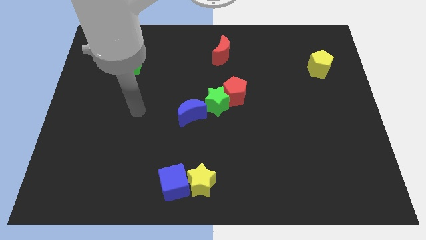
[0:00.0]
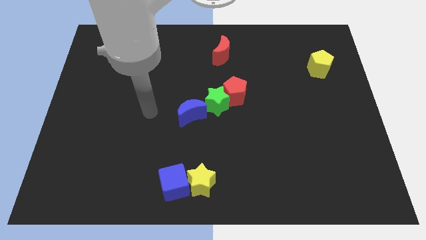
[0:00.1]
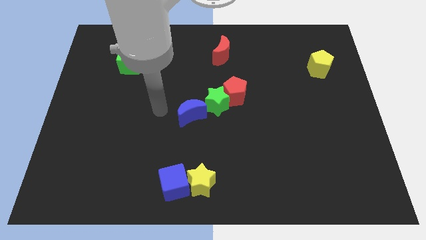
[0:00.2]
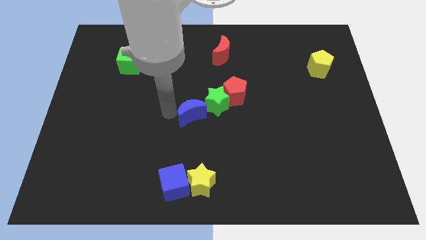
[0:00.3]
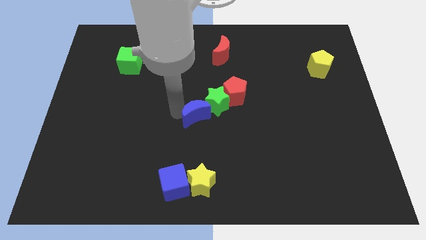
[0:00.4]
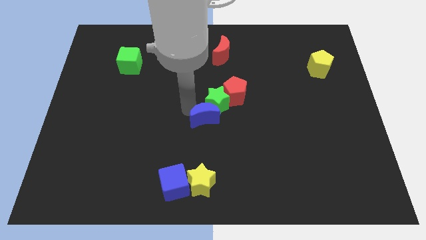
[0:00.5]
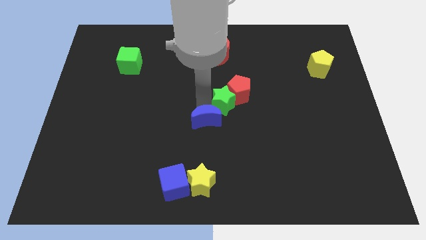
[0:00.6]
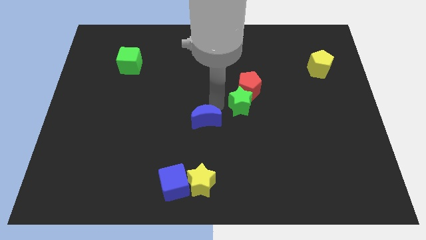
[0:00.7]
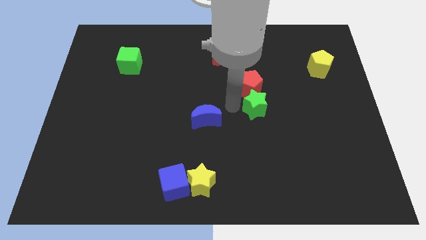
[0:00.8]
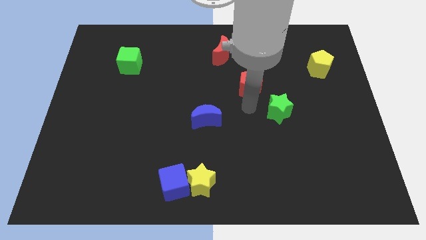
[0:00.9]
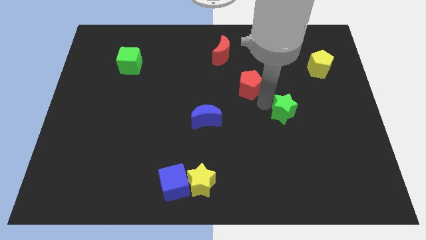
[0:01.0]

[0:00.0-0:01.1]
move the red pentagon away from the green star

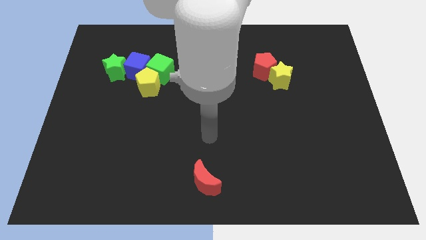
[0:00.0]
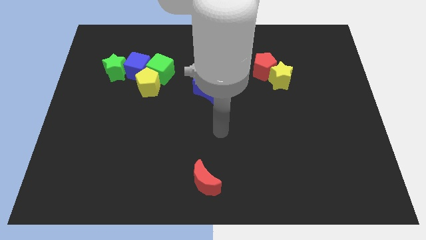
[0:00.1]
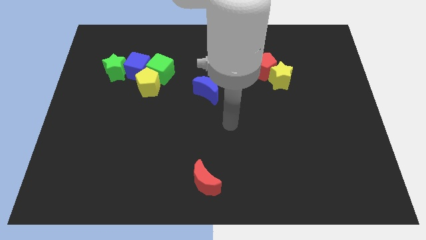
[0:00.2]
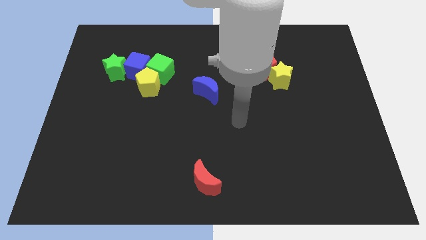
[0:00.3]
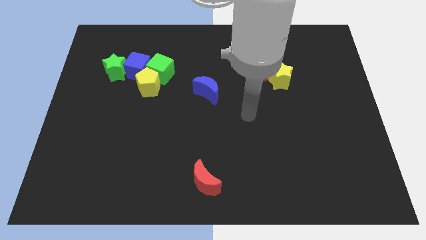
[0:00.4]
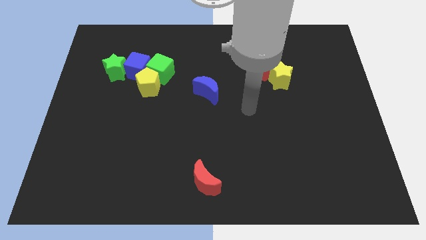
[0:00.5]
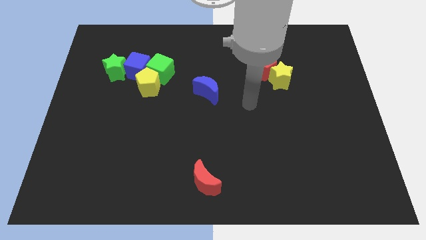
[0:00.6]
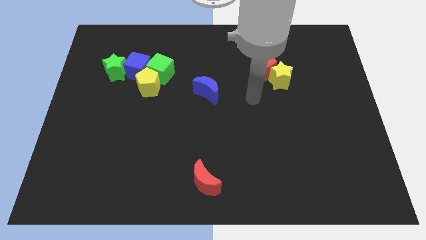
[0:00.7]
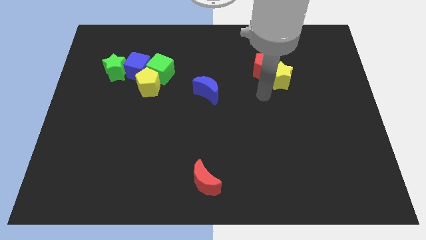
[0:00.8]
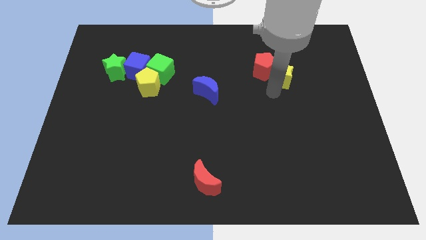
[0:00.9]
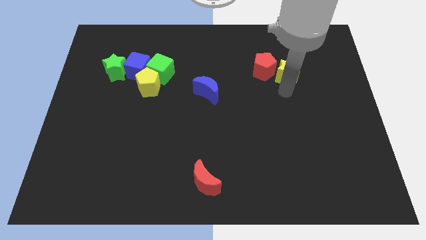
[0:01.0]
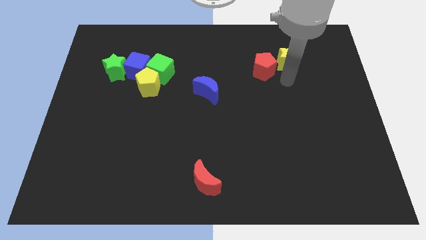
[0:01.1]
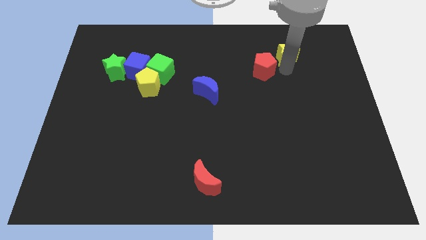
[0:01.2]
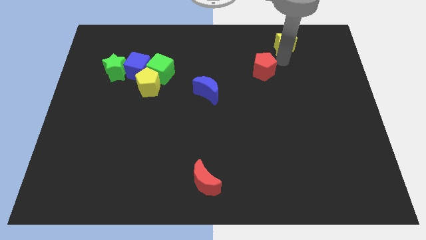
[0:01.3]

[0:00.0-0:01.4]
pull the red pentagon apart from the yellow star

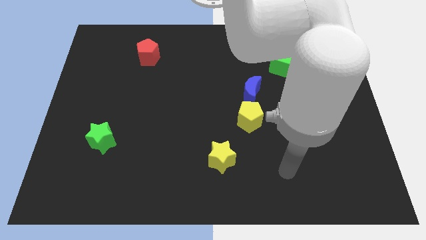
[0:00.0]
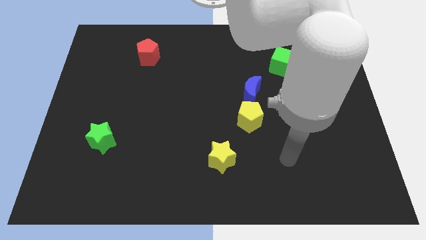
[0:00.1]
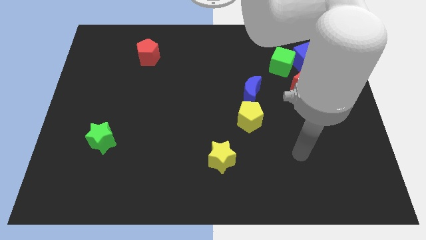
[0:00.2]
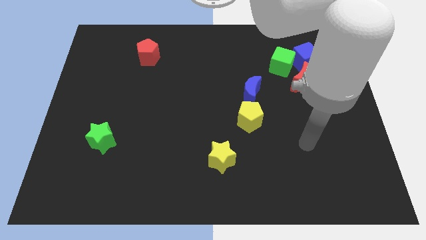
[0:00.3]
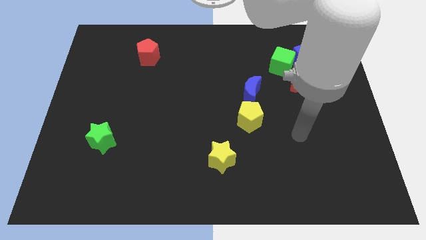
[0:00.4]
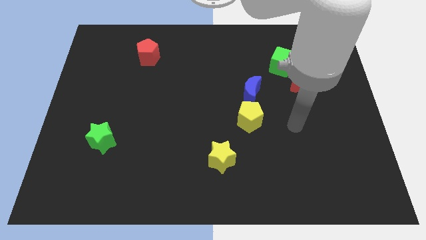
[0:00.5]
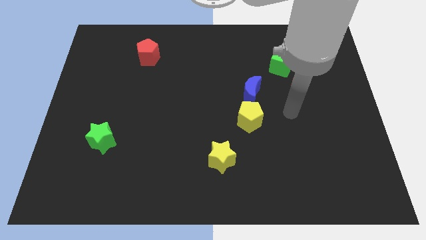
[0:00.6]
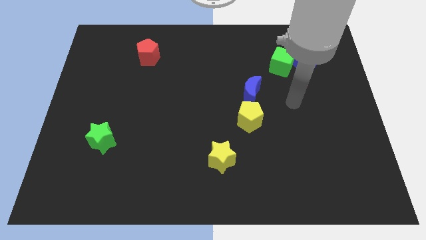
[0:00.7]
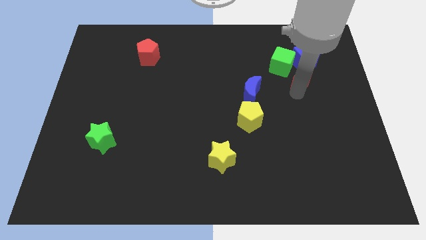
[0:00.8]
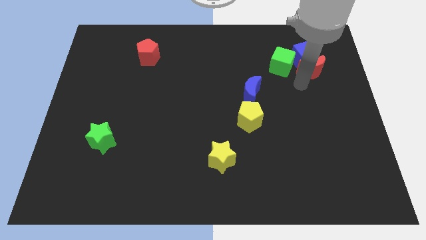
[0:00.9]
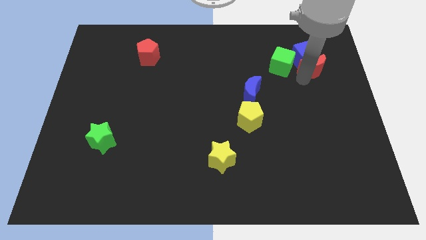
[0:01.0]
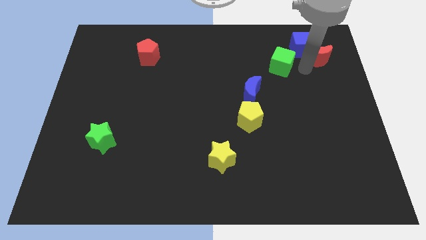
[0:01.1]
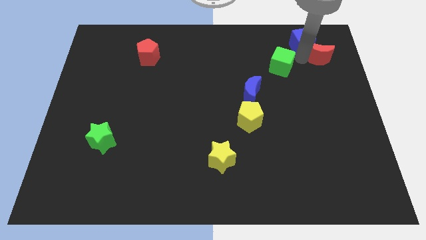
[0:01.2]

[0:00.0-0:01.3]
pull the green cube apart from the blue cube and red moon

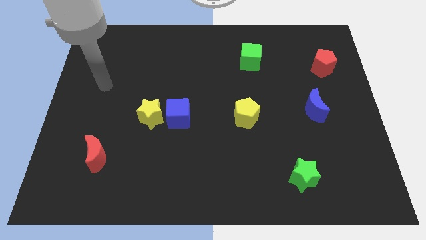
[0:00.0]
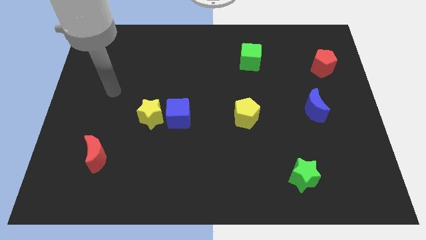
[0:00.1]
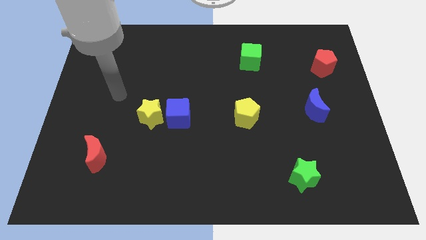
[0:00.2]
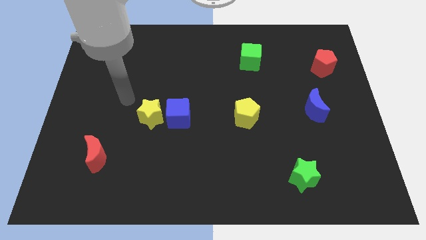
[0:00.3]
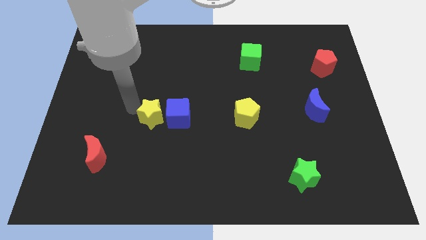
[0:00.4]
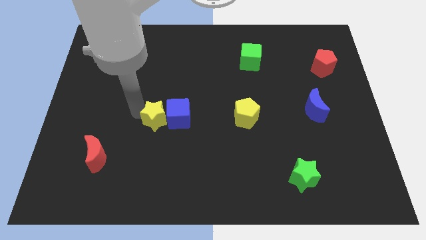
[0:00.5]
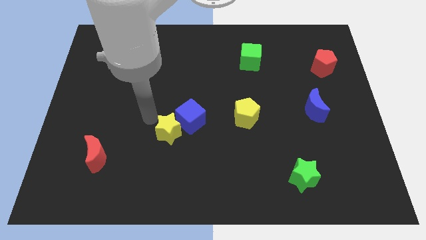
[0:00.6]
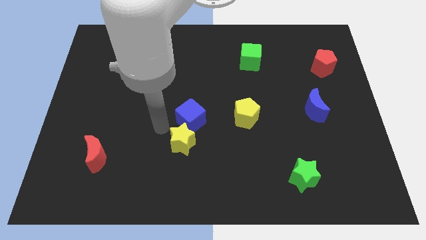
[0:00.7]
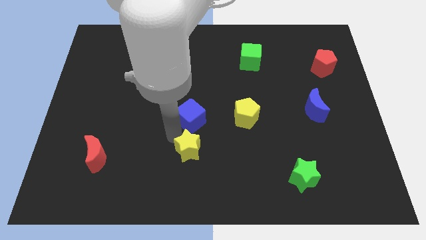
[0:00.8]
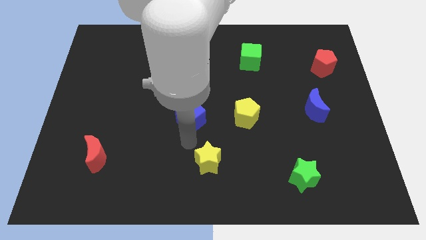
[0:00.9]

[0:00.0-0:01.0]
move the blue cube away from the yellow star

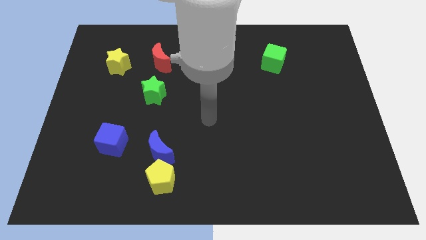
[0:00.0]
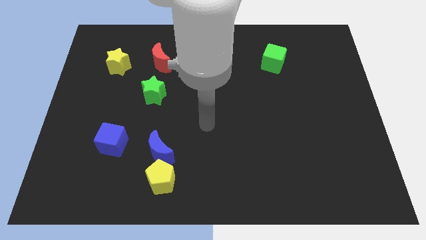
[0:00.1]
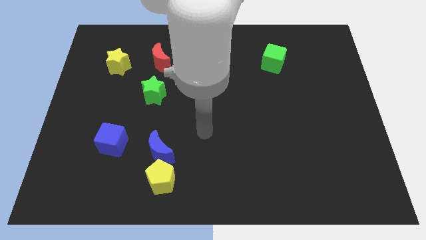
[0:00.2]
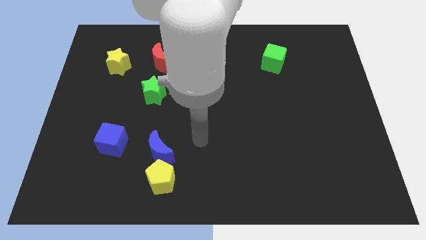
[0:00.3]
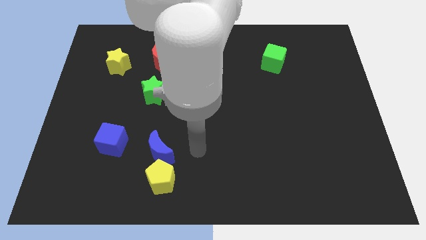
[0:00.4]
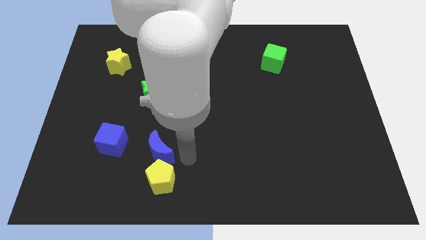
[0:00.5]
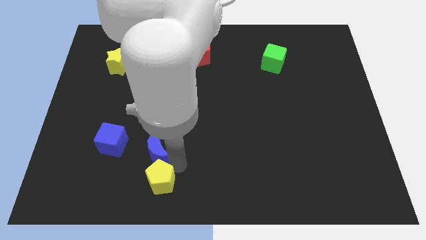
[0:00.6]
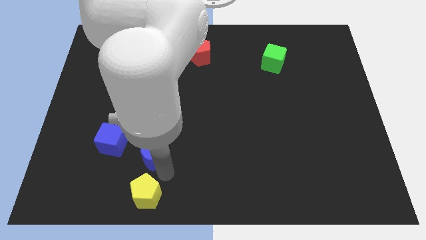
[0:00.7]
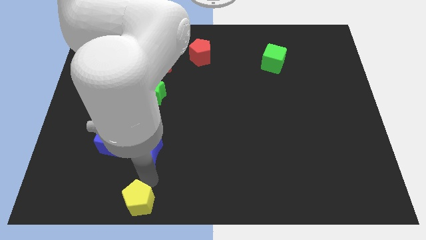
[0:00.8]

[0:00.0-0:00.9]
separate the blue moon from the yellow pentagon

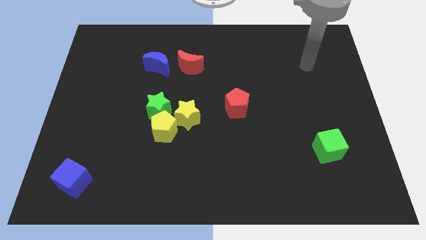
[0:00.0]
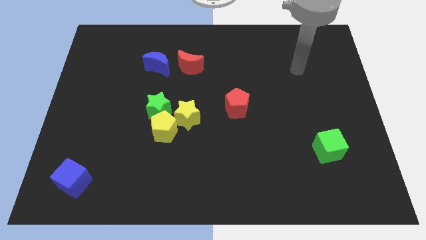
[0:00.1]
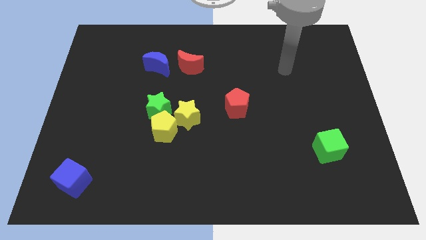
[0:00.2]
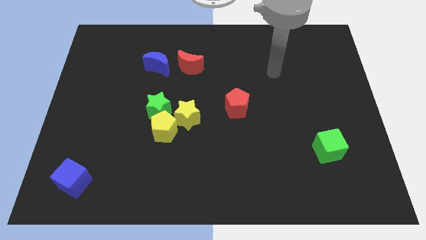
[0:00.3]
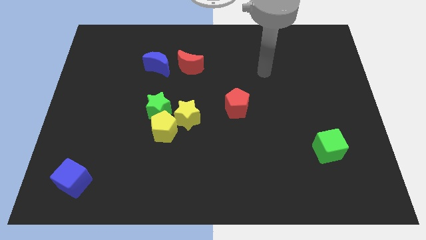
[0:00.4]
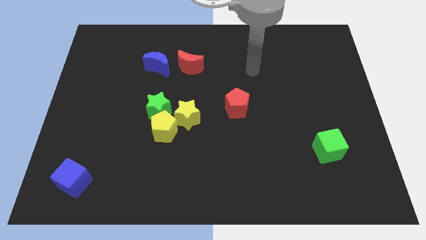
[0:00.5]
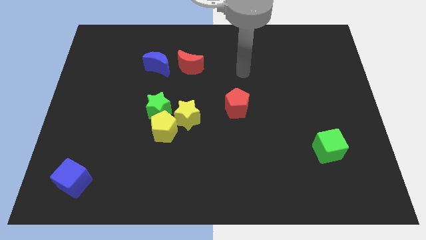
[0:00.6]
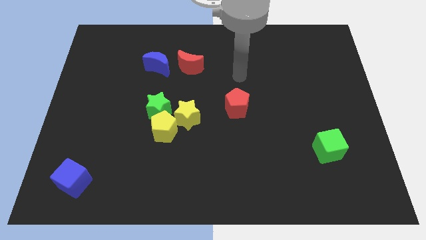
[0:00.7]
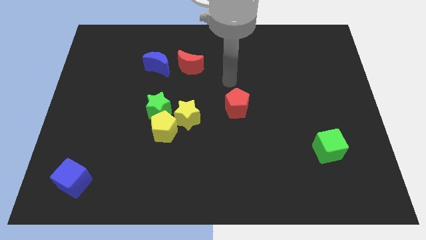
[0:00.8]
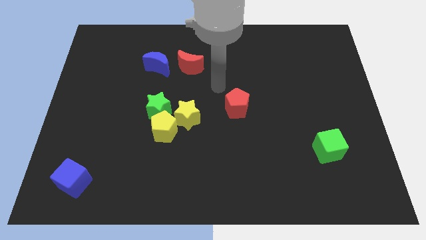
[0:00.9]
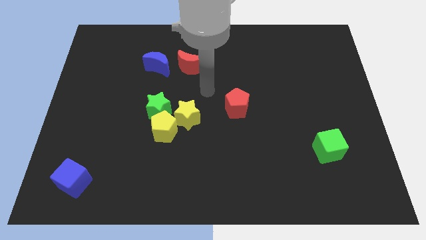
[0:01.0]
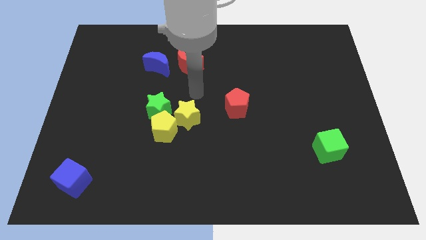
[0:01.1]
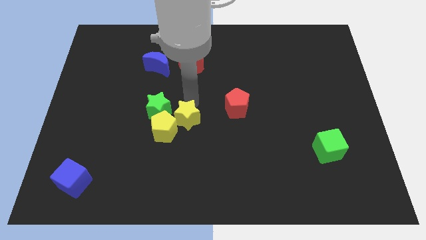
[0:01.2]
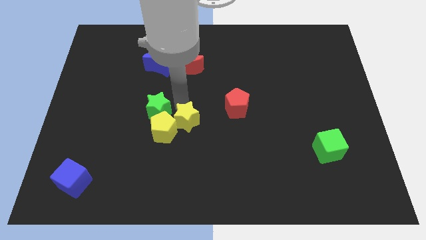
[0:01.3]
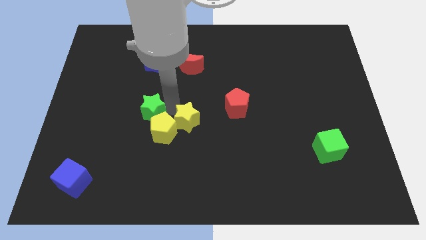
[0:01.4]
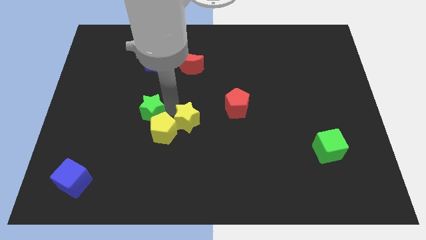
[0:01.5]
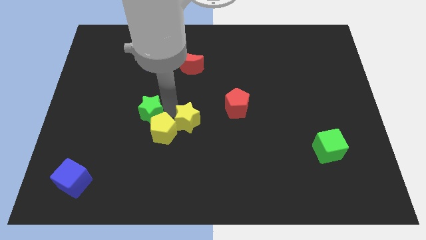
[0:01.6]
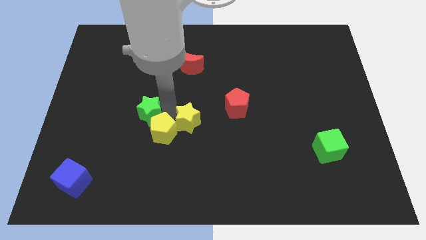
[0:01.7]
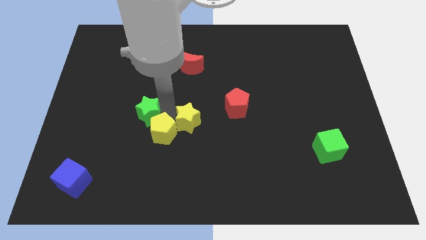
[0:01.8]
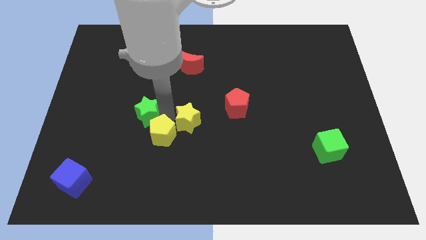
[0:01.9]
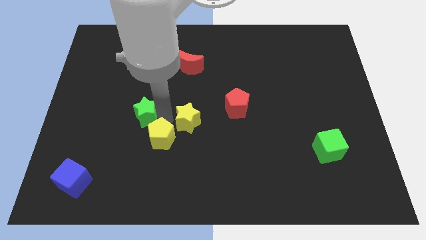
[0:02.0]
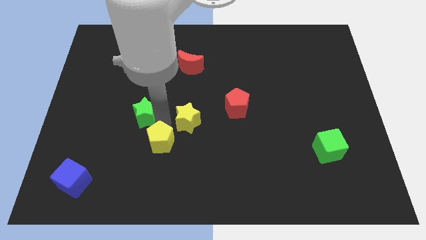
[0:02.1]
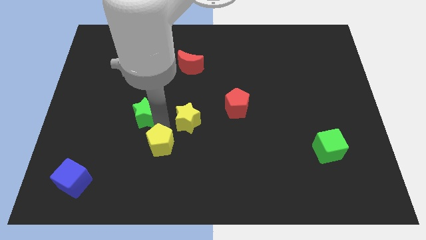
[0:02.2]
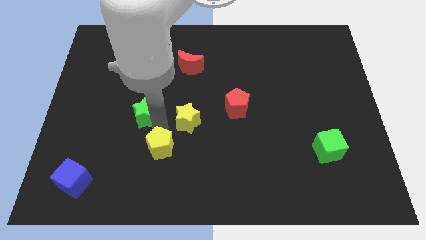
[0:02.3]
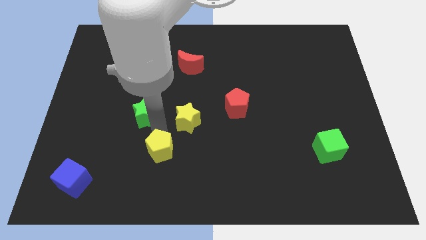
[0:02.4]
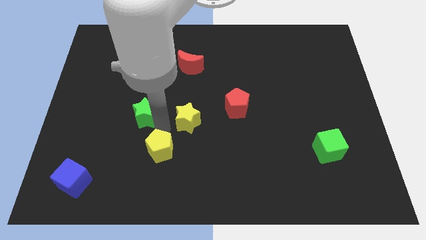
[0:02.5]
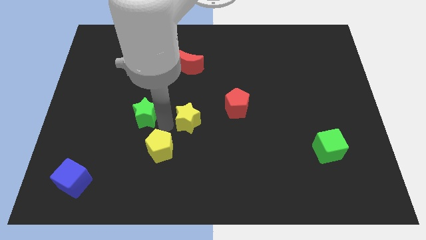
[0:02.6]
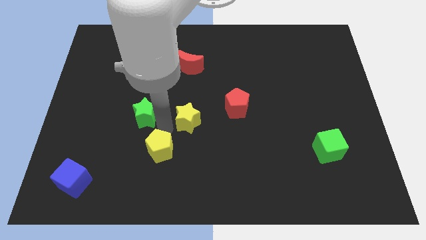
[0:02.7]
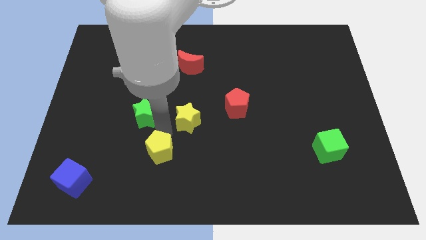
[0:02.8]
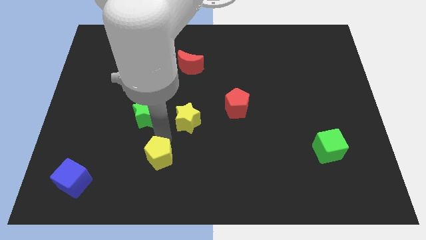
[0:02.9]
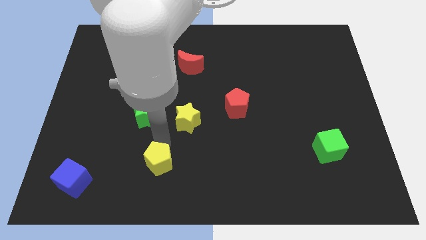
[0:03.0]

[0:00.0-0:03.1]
separate the yellow pentagon from the green star and yellow star

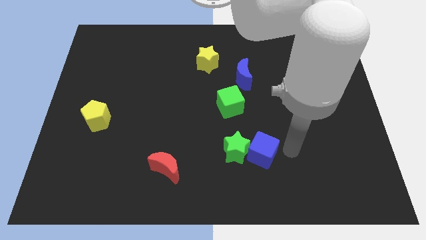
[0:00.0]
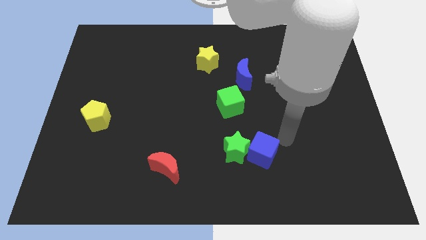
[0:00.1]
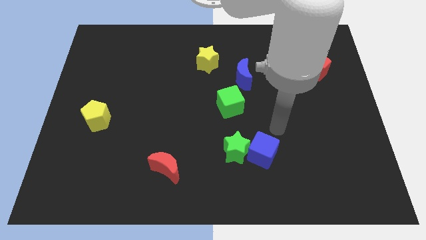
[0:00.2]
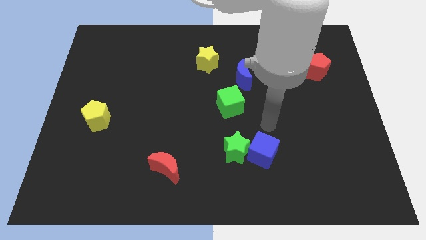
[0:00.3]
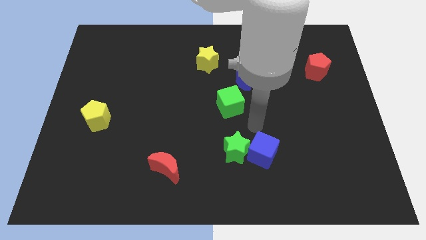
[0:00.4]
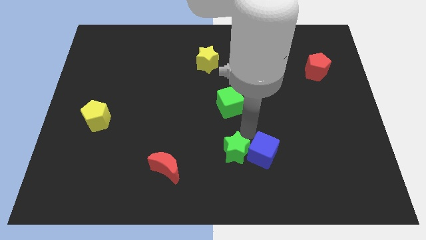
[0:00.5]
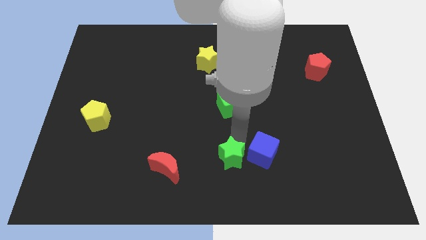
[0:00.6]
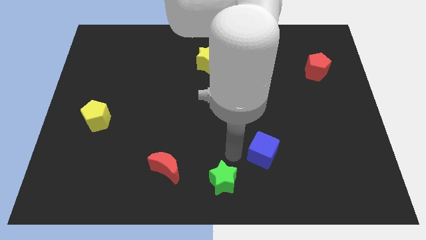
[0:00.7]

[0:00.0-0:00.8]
move the blue cube away from the green star
